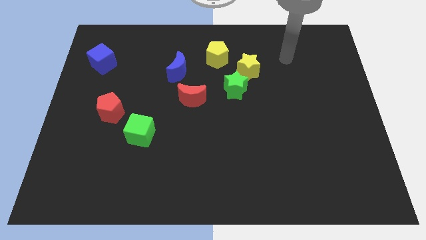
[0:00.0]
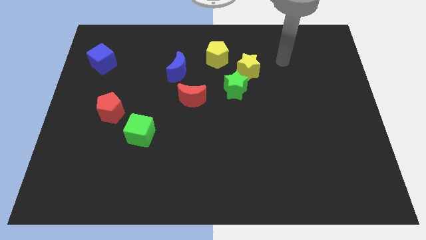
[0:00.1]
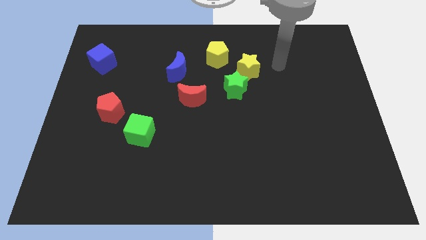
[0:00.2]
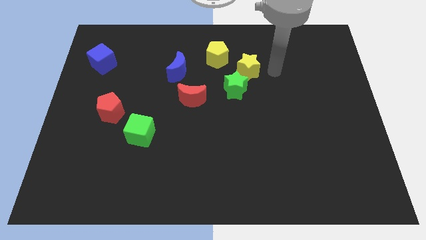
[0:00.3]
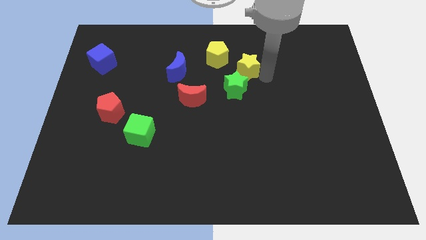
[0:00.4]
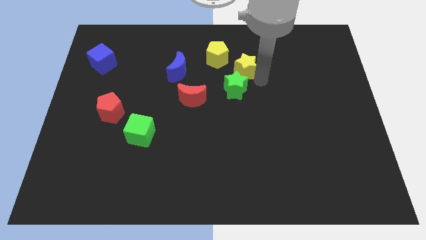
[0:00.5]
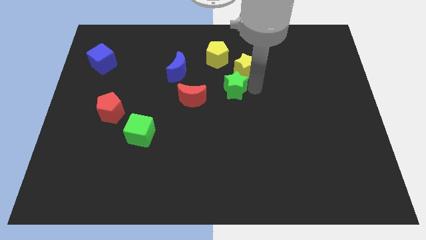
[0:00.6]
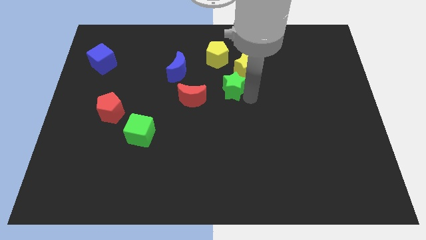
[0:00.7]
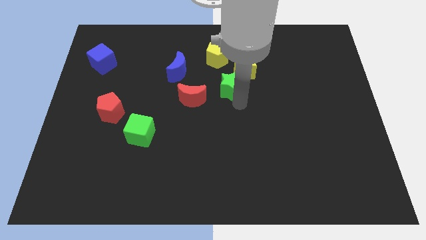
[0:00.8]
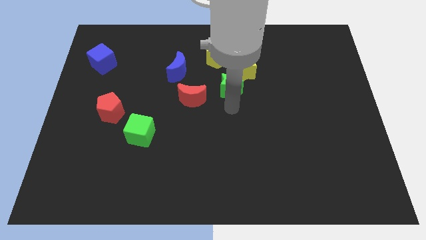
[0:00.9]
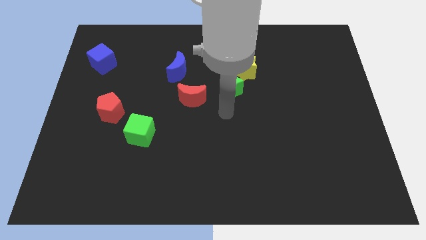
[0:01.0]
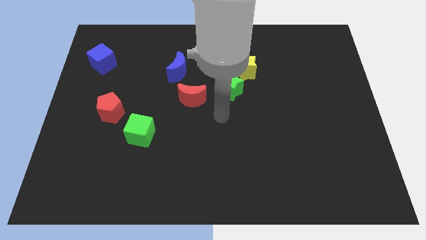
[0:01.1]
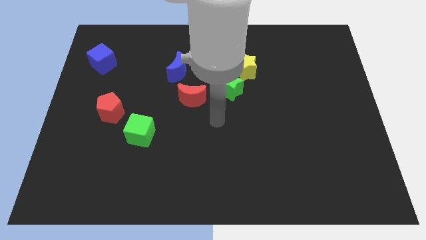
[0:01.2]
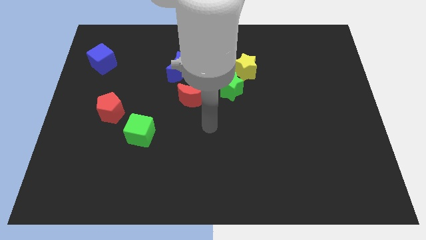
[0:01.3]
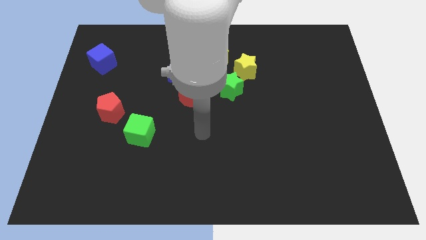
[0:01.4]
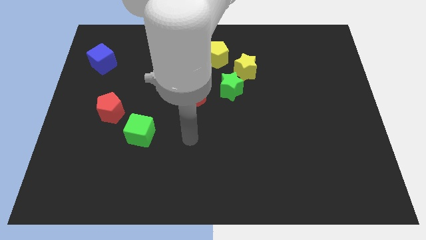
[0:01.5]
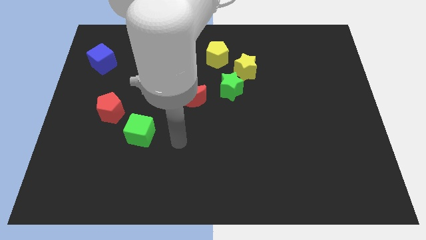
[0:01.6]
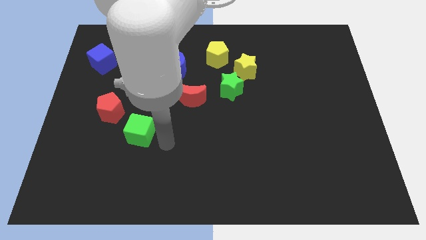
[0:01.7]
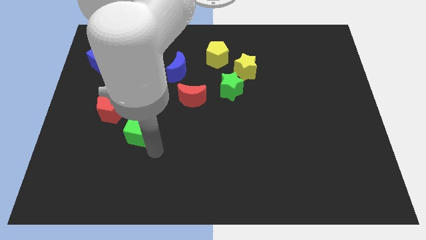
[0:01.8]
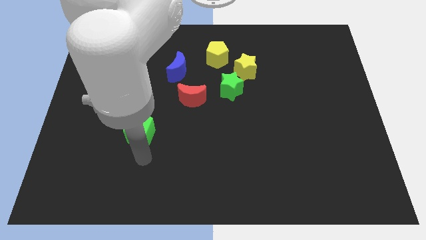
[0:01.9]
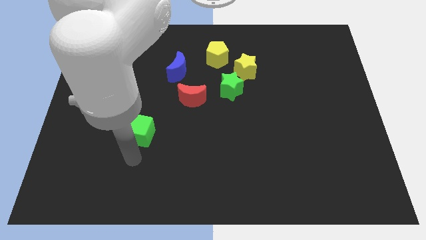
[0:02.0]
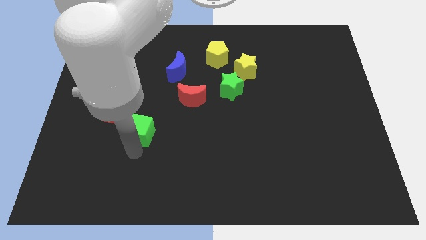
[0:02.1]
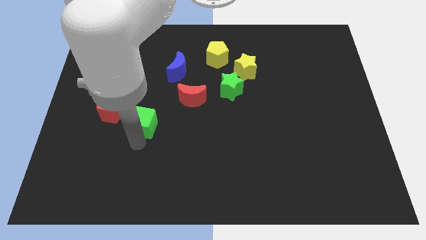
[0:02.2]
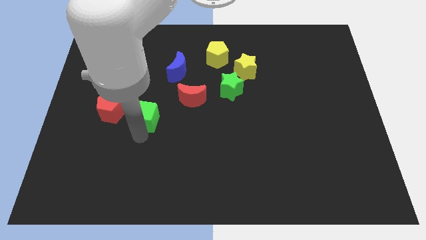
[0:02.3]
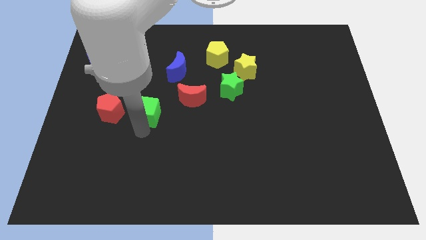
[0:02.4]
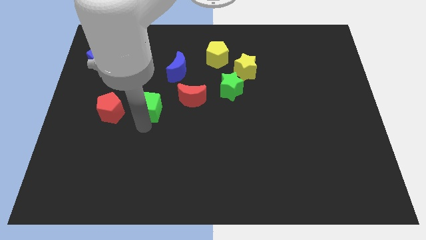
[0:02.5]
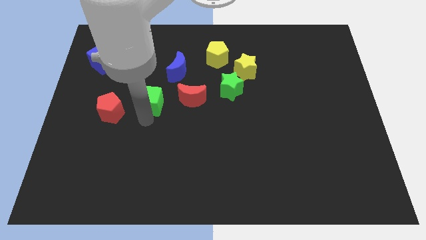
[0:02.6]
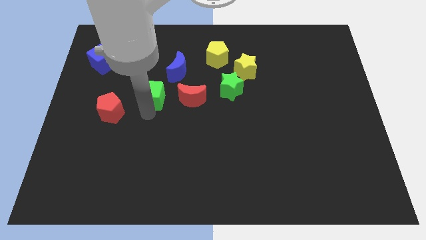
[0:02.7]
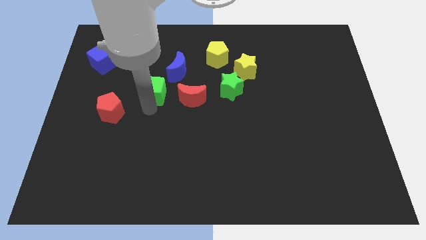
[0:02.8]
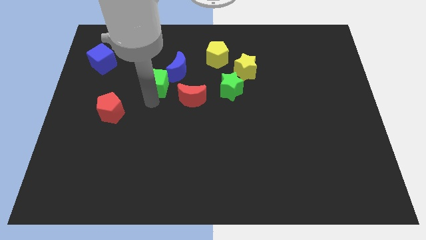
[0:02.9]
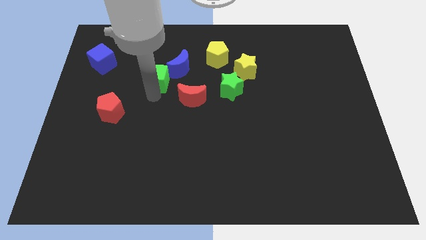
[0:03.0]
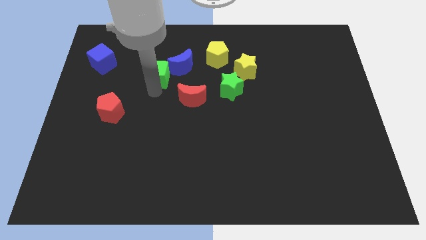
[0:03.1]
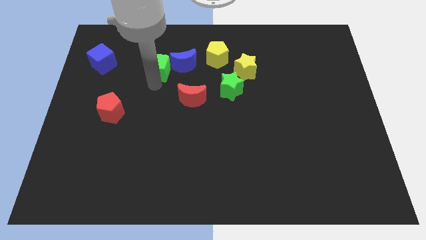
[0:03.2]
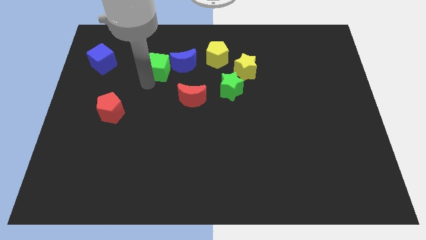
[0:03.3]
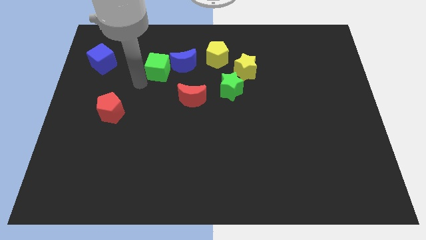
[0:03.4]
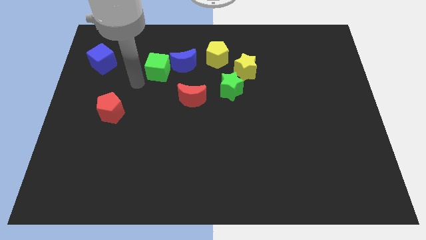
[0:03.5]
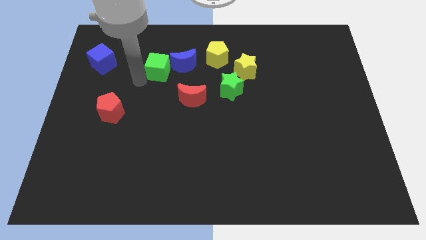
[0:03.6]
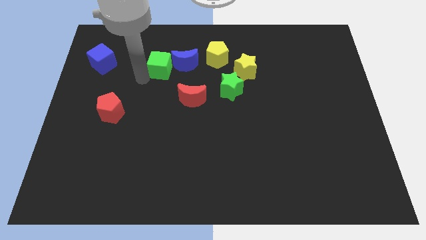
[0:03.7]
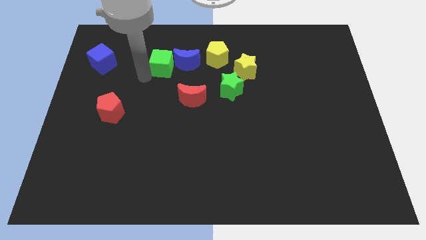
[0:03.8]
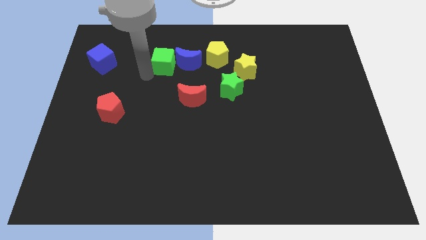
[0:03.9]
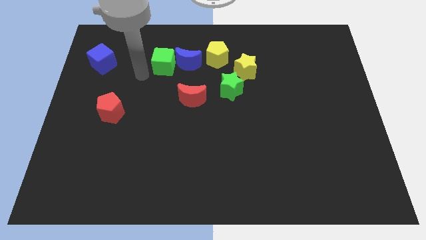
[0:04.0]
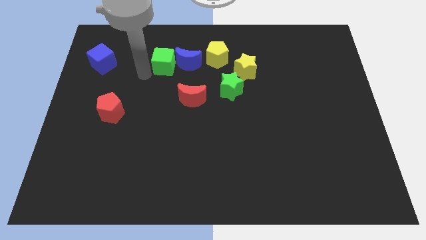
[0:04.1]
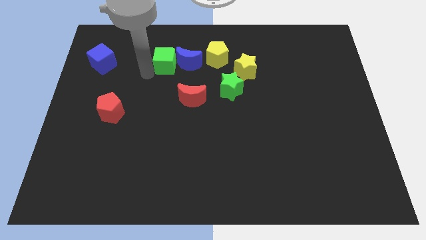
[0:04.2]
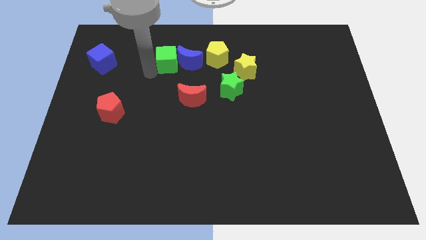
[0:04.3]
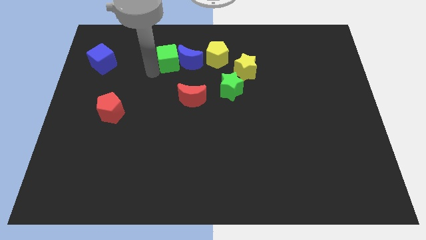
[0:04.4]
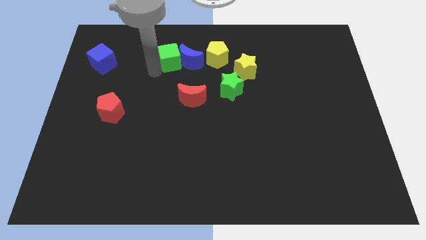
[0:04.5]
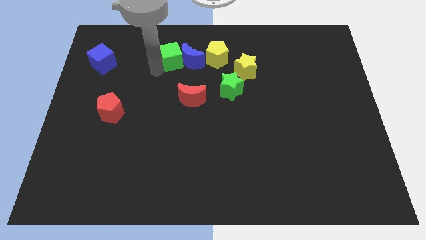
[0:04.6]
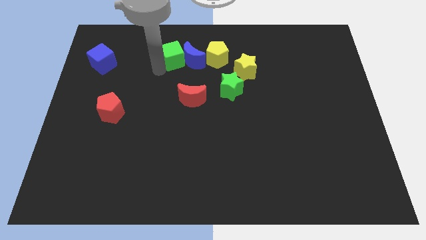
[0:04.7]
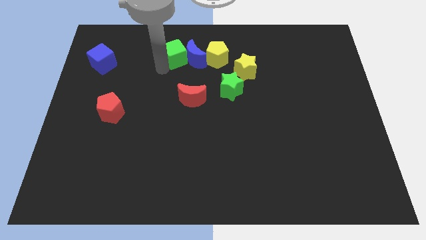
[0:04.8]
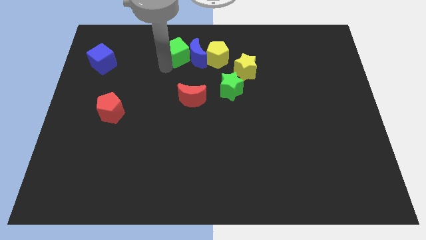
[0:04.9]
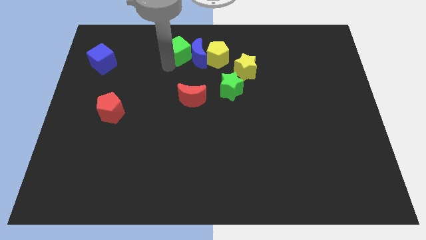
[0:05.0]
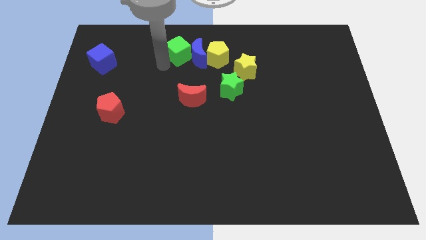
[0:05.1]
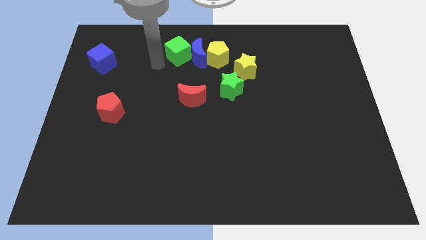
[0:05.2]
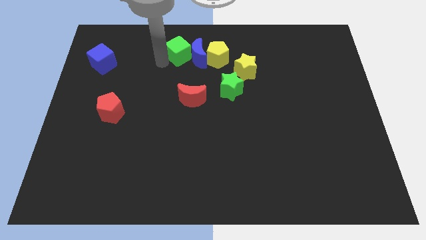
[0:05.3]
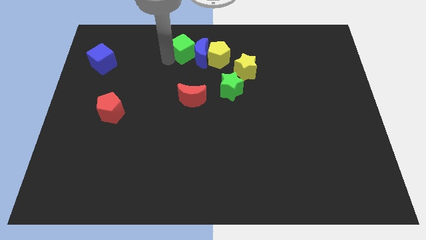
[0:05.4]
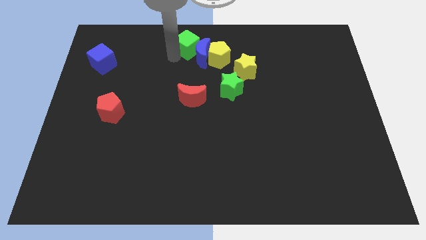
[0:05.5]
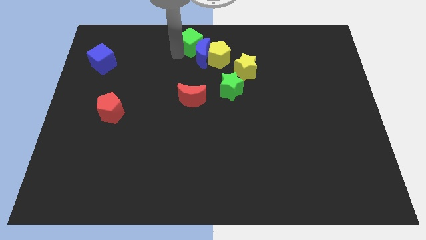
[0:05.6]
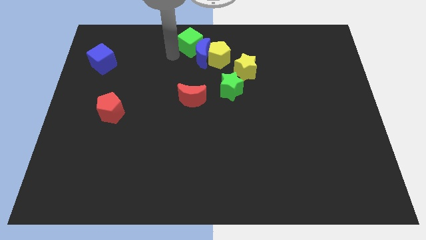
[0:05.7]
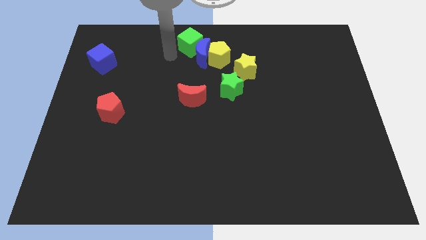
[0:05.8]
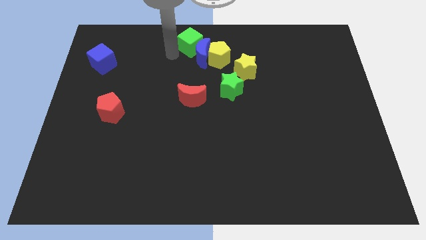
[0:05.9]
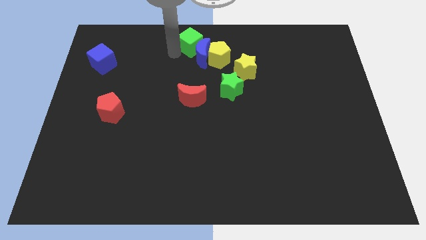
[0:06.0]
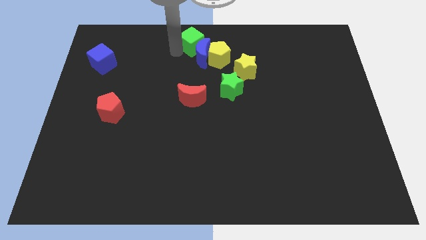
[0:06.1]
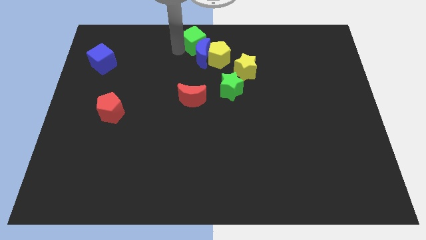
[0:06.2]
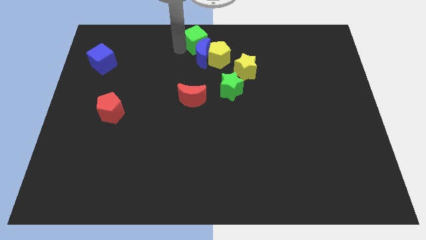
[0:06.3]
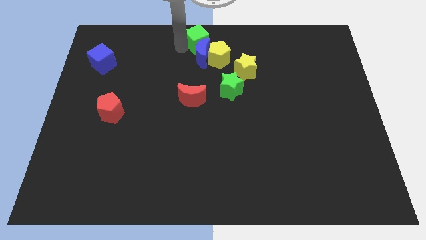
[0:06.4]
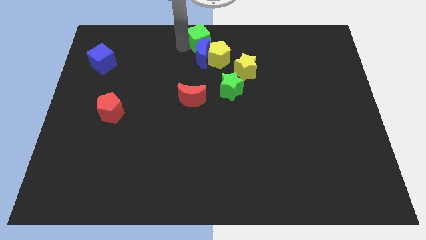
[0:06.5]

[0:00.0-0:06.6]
slide the green cube upwards and then right

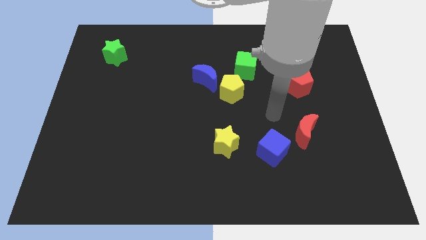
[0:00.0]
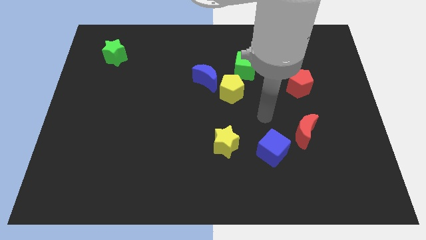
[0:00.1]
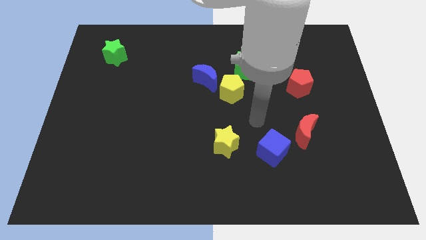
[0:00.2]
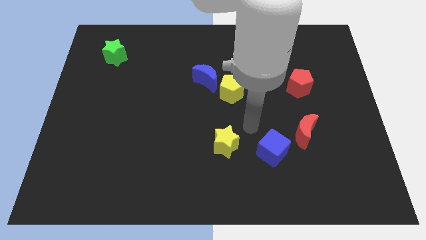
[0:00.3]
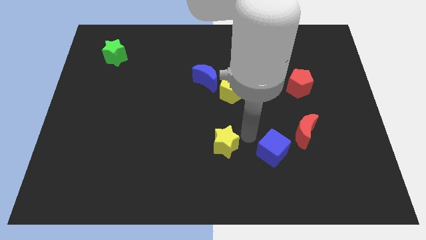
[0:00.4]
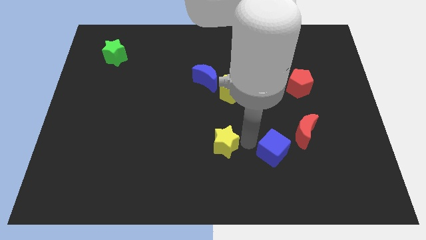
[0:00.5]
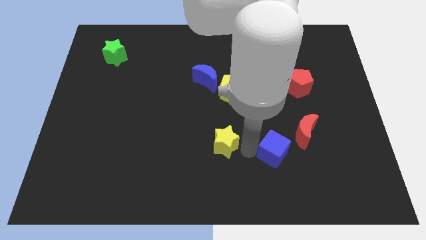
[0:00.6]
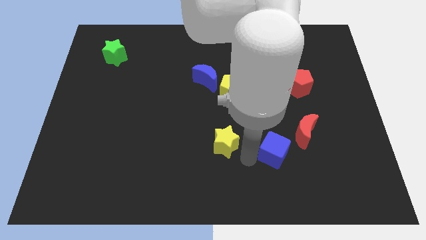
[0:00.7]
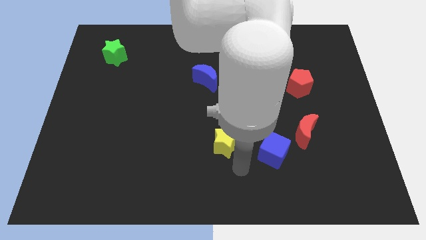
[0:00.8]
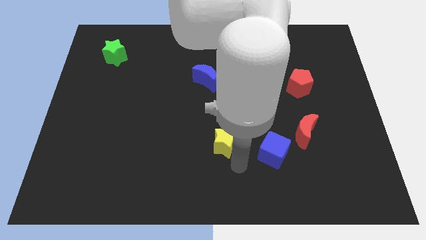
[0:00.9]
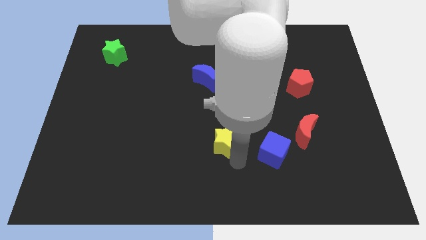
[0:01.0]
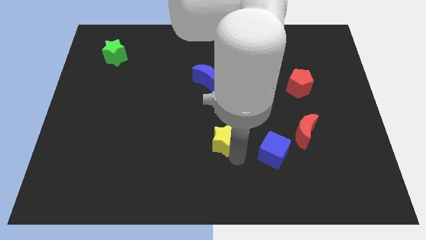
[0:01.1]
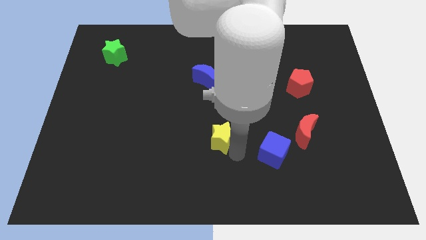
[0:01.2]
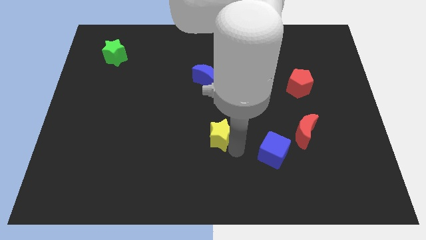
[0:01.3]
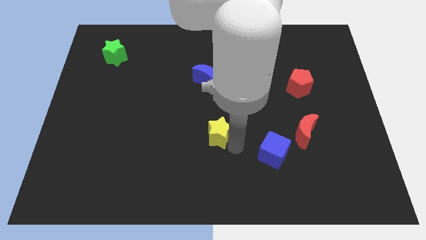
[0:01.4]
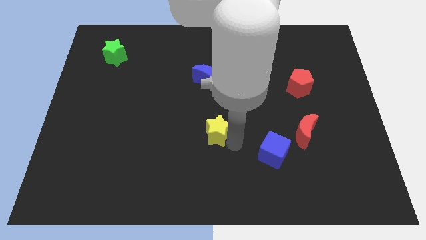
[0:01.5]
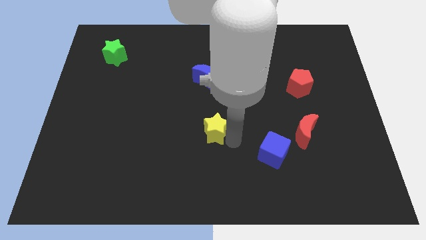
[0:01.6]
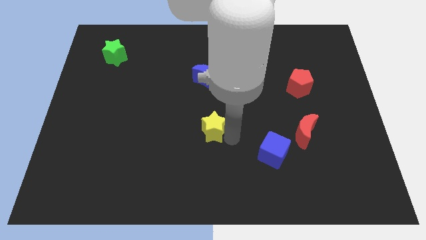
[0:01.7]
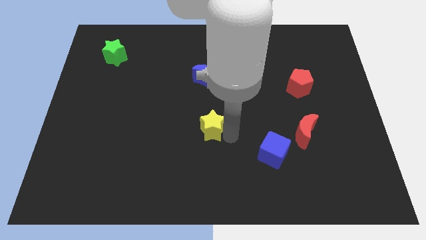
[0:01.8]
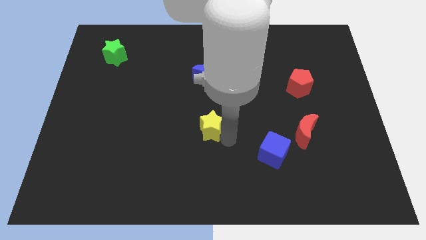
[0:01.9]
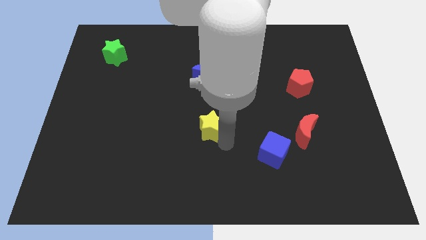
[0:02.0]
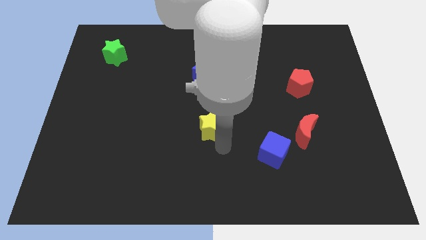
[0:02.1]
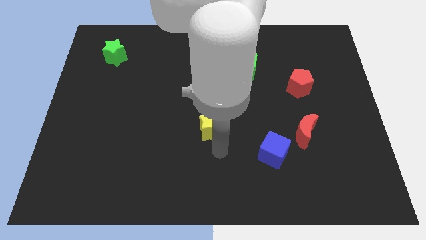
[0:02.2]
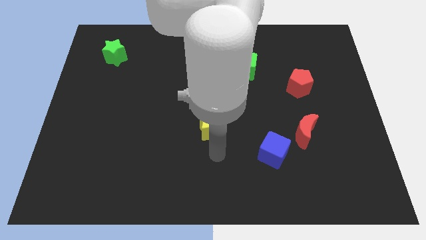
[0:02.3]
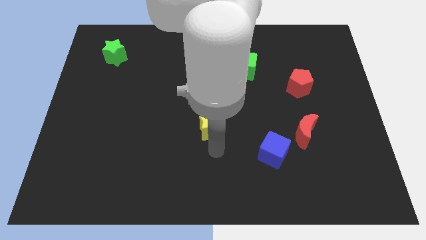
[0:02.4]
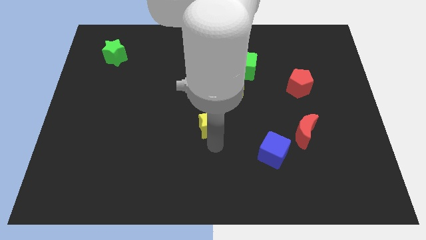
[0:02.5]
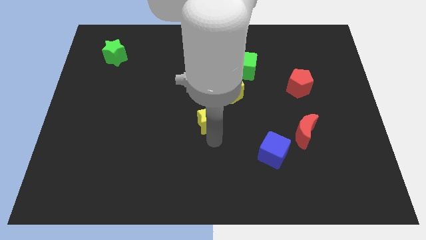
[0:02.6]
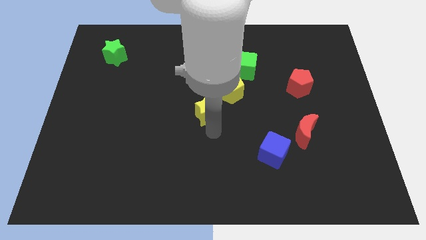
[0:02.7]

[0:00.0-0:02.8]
move the yellow star a little bit upwards
